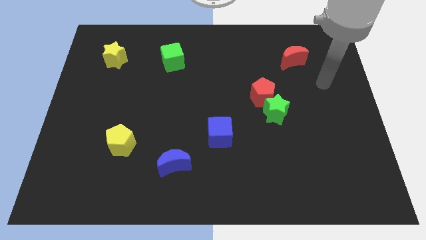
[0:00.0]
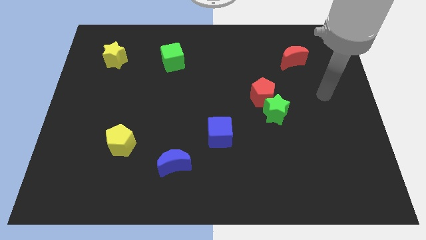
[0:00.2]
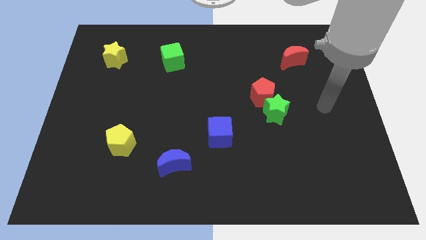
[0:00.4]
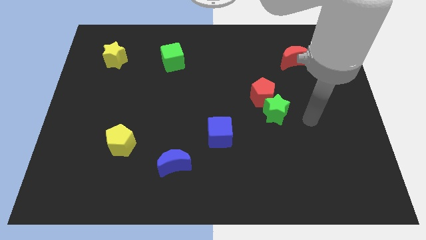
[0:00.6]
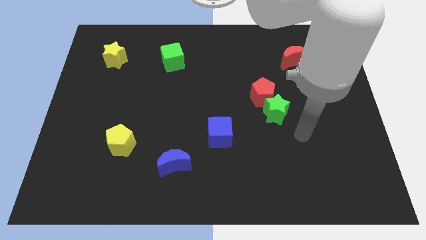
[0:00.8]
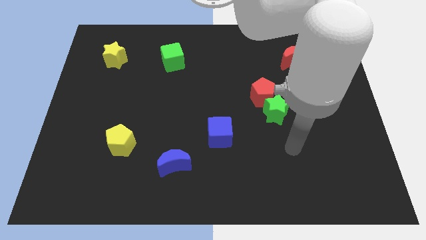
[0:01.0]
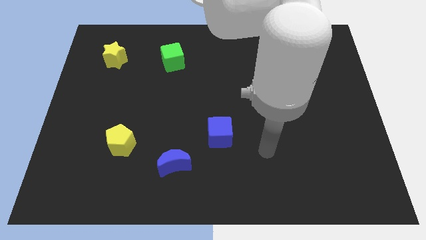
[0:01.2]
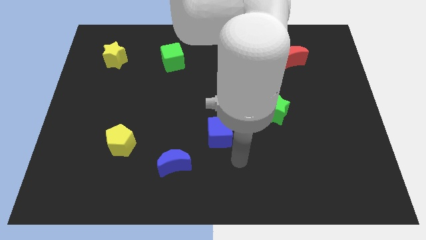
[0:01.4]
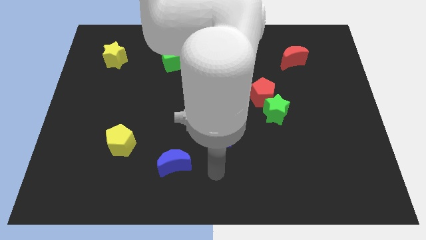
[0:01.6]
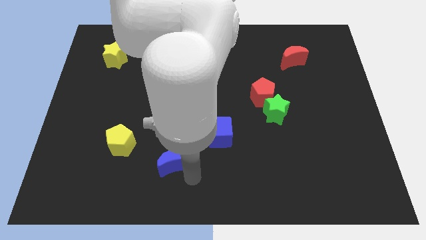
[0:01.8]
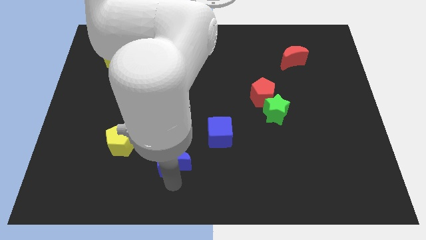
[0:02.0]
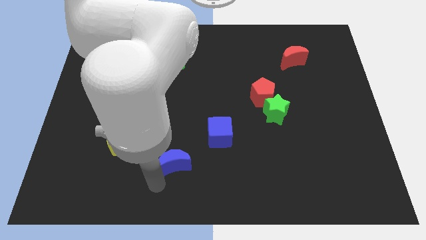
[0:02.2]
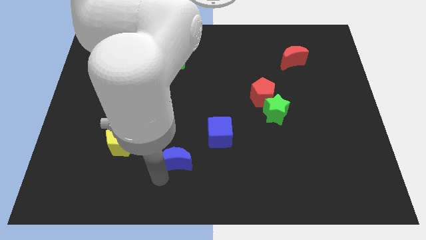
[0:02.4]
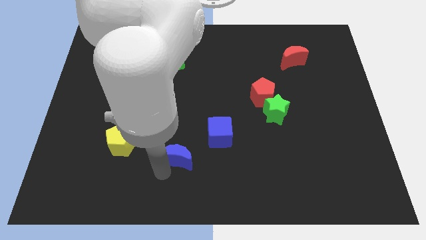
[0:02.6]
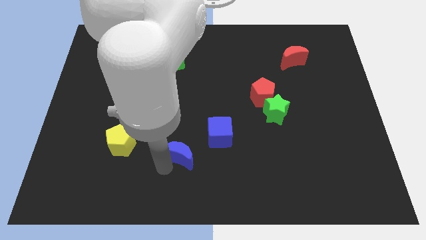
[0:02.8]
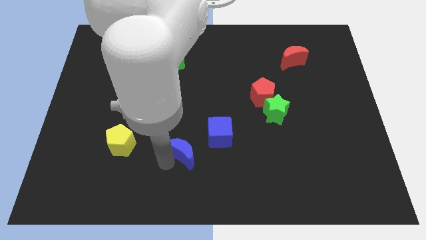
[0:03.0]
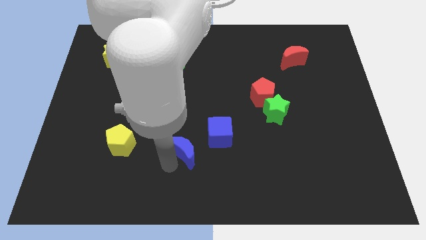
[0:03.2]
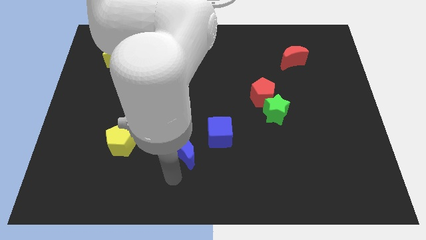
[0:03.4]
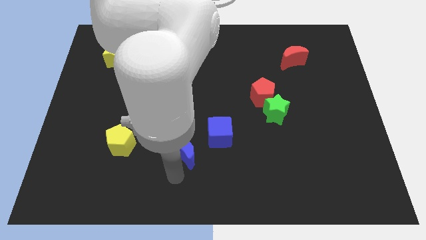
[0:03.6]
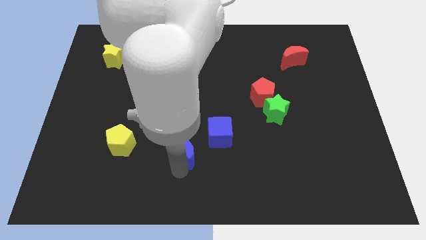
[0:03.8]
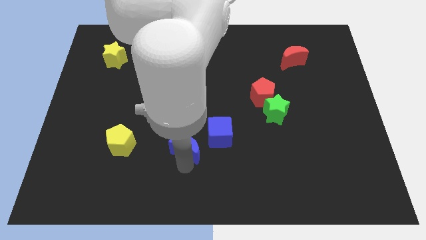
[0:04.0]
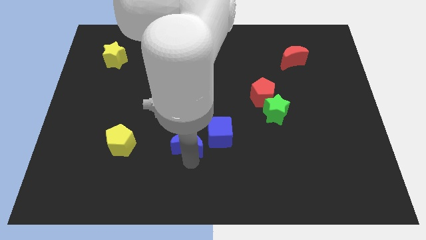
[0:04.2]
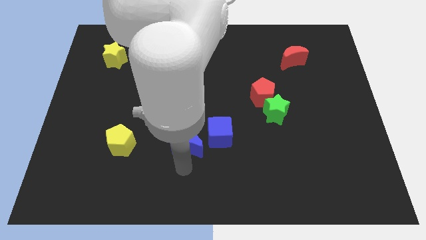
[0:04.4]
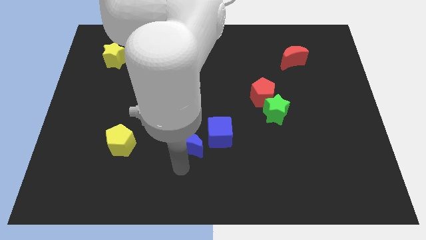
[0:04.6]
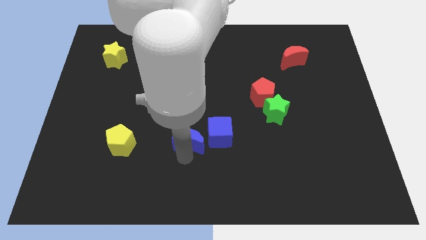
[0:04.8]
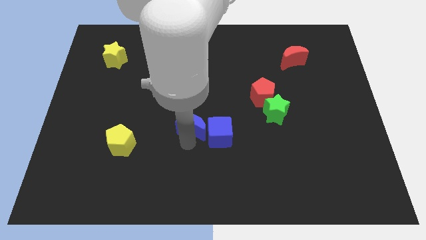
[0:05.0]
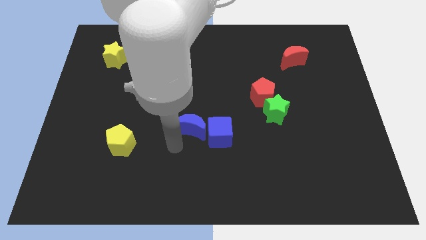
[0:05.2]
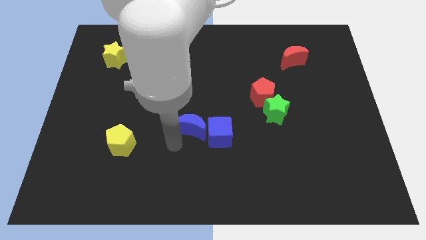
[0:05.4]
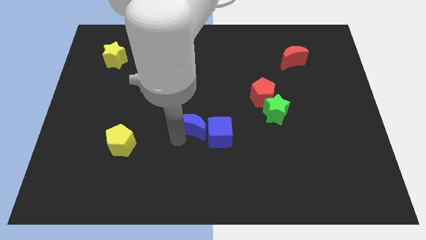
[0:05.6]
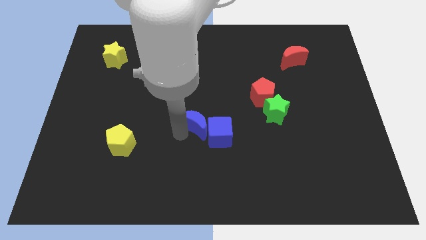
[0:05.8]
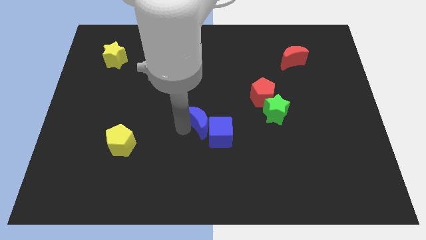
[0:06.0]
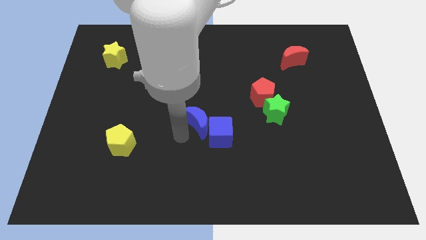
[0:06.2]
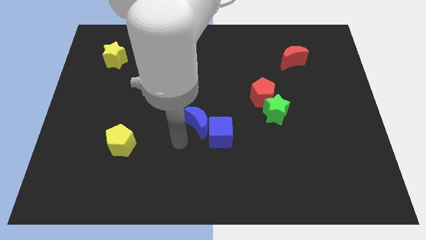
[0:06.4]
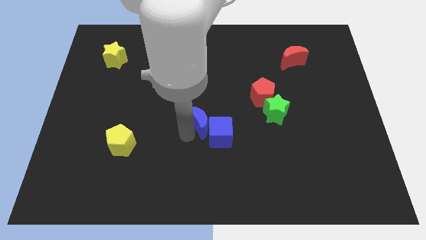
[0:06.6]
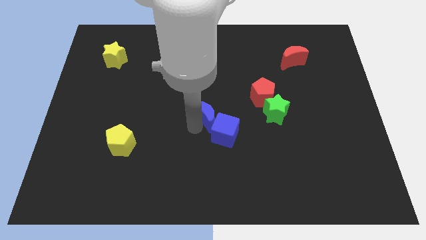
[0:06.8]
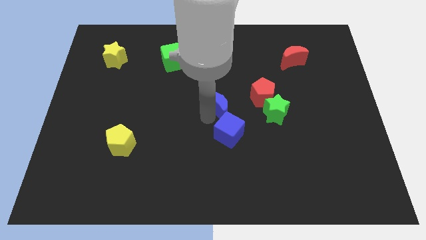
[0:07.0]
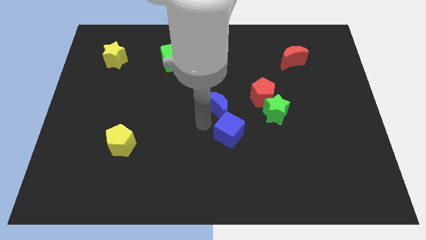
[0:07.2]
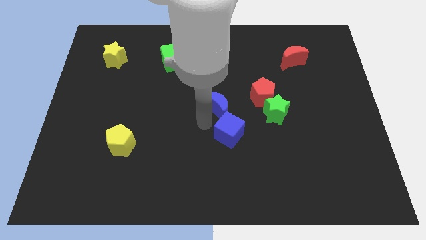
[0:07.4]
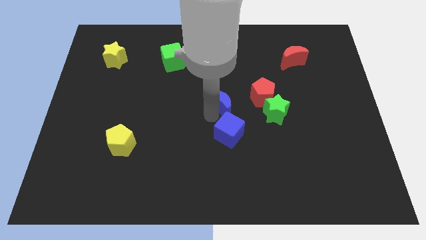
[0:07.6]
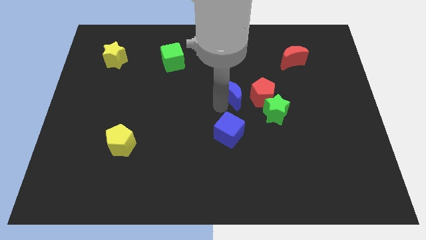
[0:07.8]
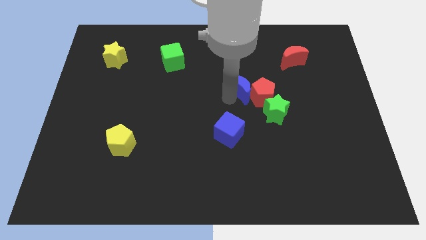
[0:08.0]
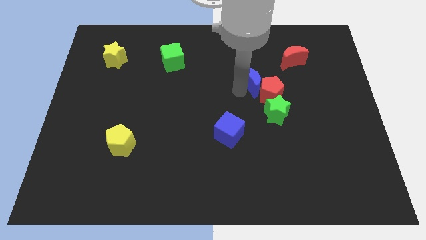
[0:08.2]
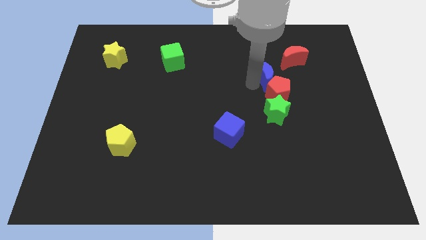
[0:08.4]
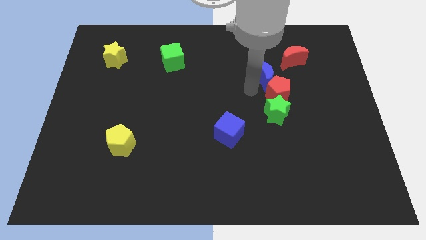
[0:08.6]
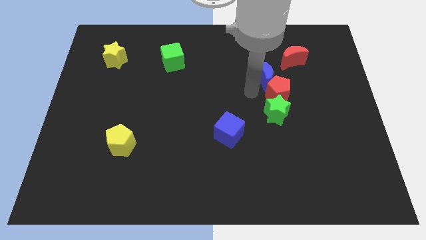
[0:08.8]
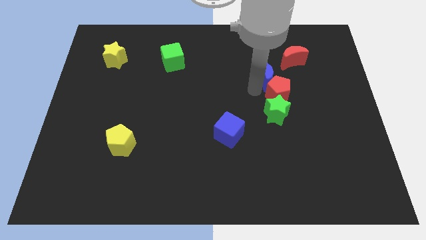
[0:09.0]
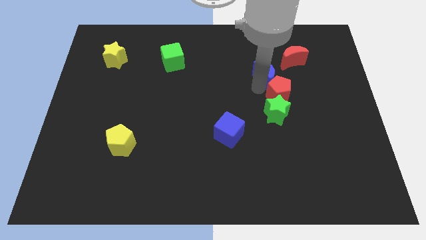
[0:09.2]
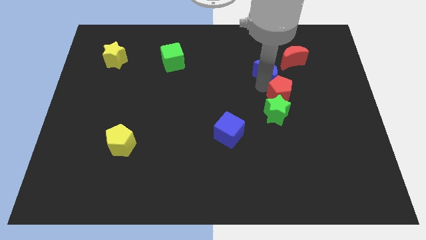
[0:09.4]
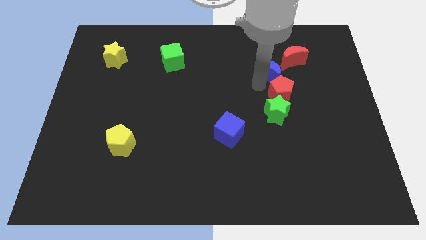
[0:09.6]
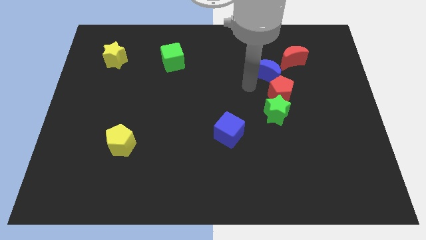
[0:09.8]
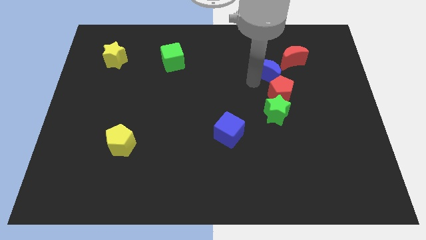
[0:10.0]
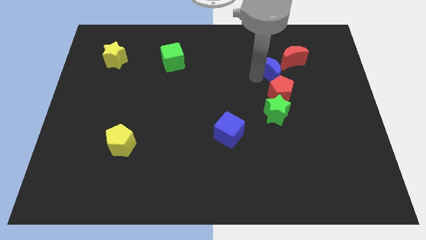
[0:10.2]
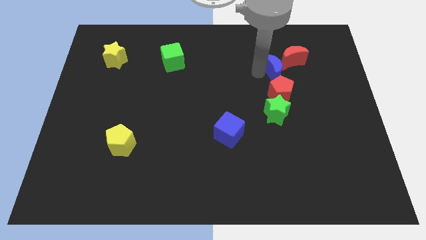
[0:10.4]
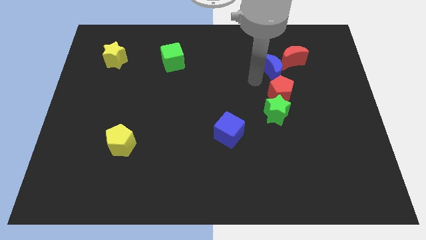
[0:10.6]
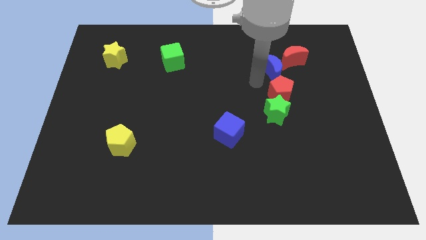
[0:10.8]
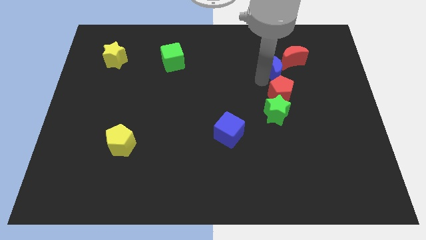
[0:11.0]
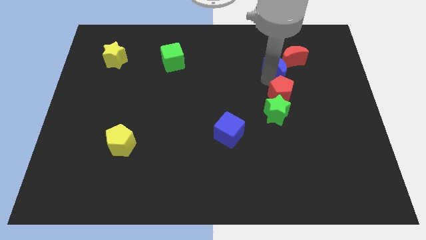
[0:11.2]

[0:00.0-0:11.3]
move the blue moon towards the red moon

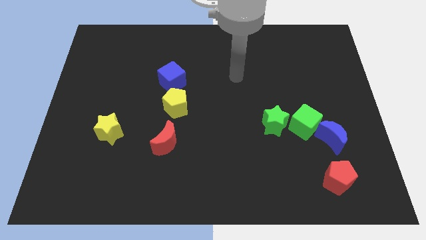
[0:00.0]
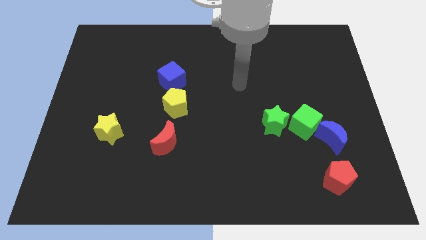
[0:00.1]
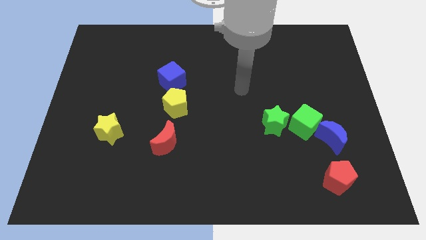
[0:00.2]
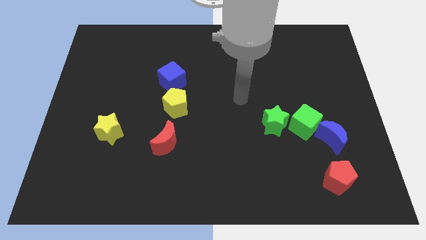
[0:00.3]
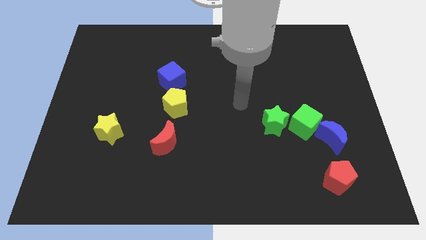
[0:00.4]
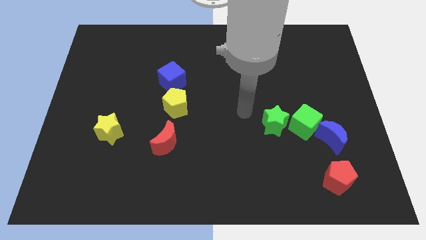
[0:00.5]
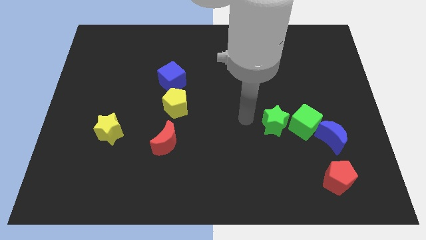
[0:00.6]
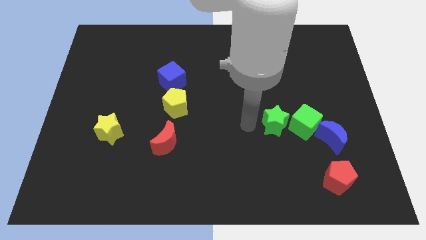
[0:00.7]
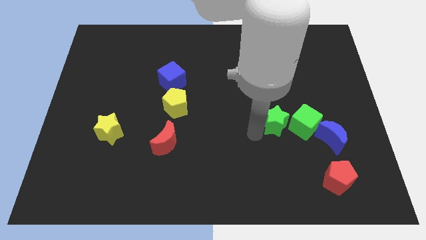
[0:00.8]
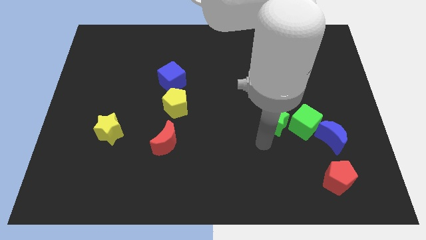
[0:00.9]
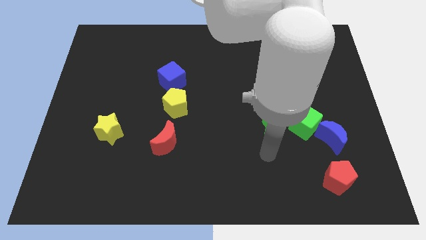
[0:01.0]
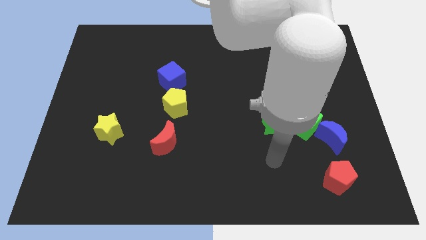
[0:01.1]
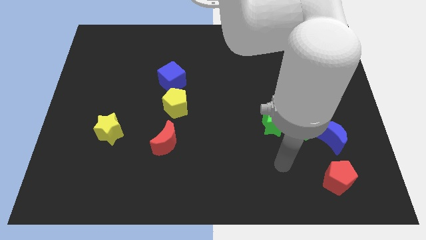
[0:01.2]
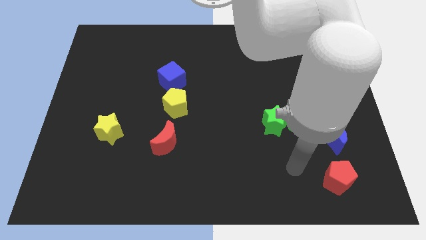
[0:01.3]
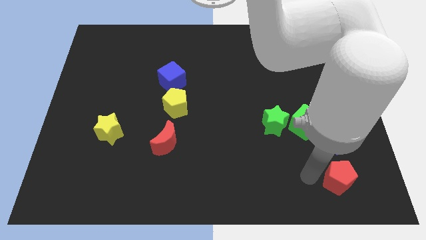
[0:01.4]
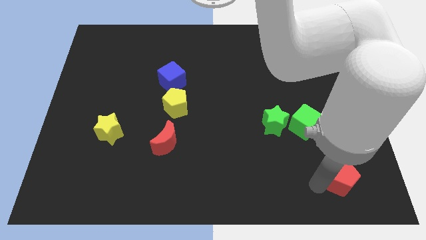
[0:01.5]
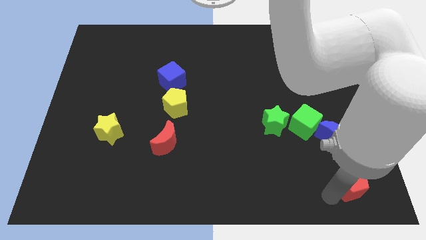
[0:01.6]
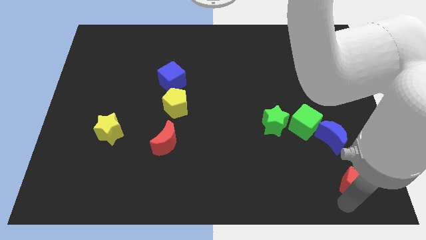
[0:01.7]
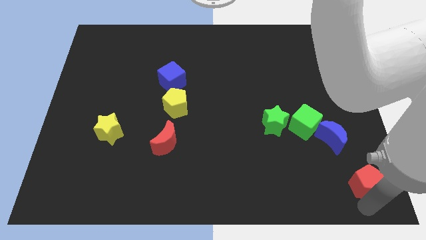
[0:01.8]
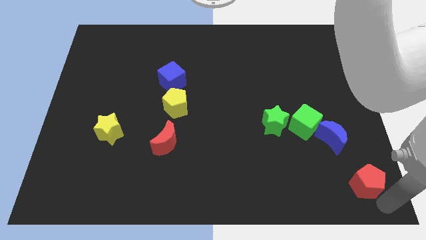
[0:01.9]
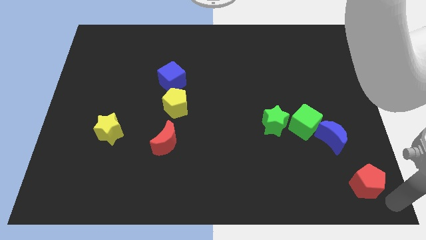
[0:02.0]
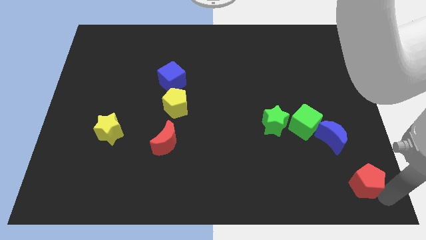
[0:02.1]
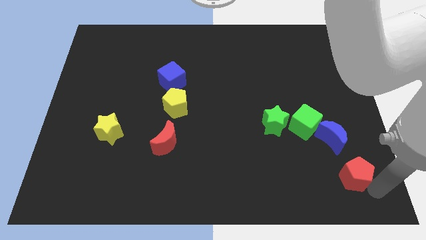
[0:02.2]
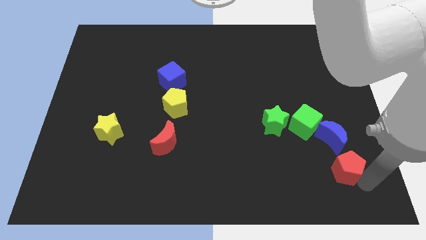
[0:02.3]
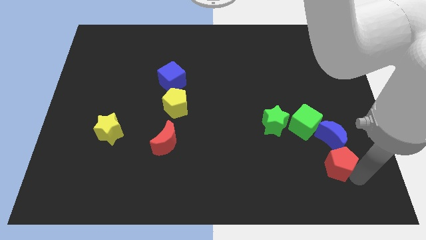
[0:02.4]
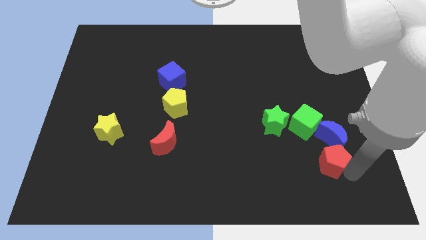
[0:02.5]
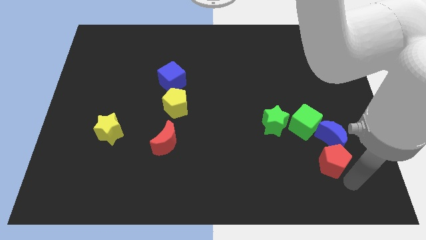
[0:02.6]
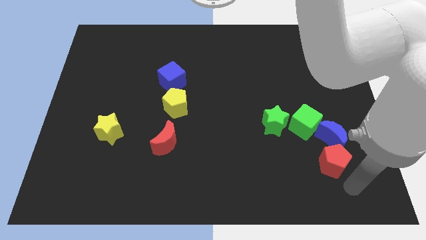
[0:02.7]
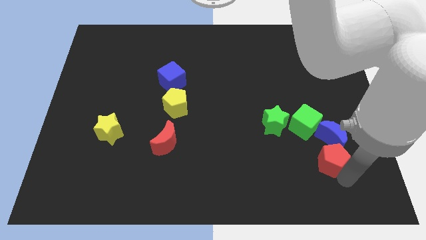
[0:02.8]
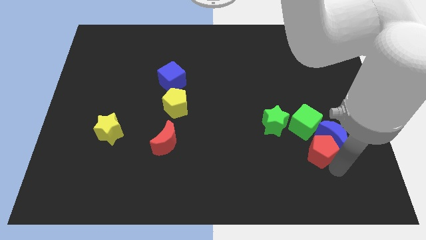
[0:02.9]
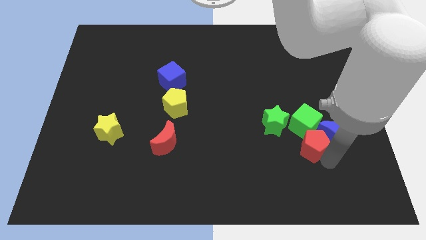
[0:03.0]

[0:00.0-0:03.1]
slide the red pentagon to the green cube
